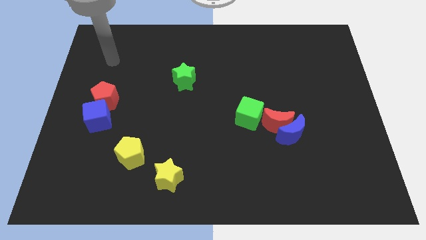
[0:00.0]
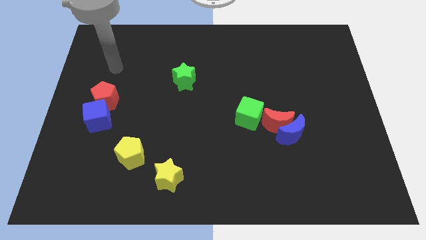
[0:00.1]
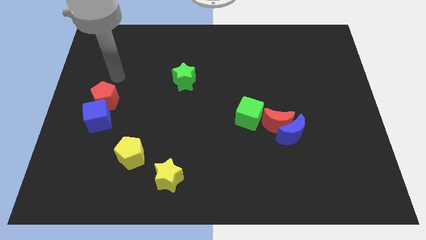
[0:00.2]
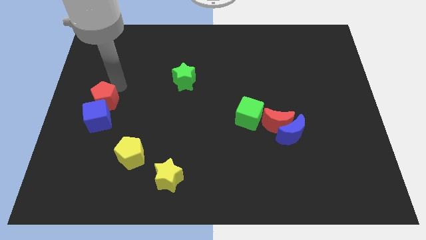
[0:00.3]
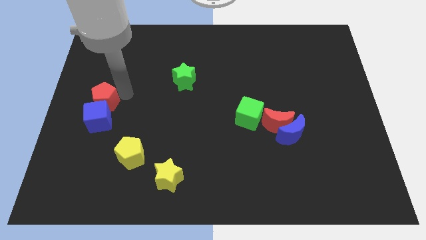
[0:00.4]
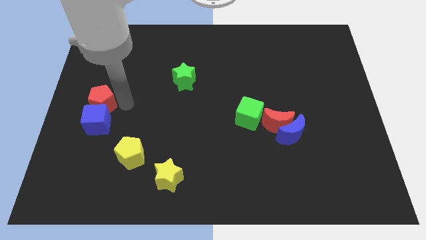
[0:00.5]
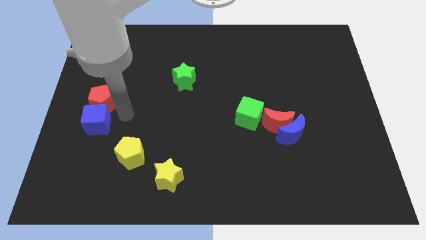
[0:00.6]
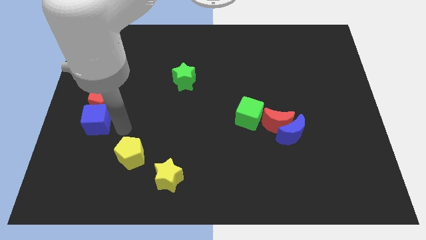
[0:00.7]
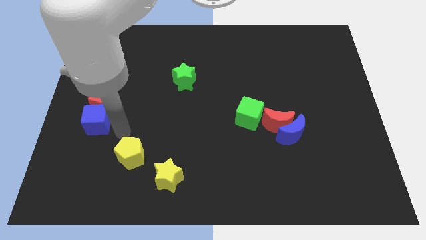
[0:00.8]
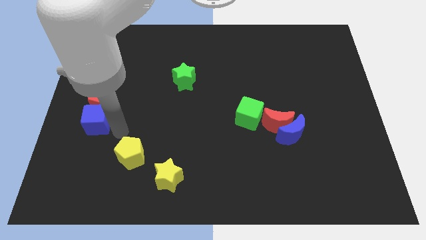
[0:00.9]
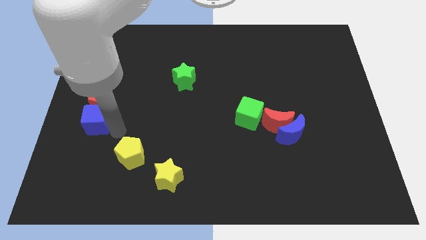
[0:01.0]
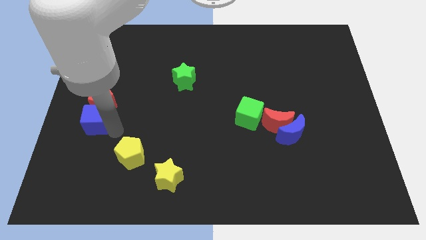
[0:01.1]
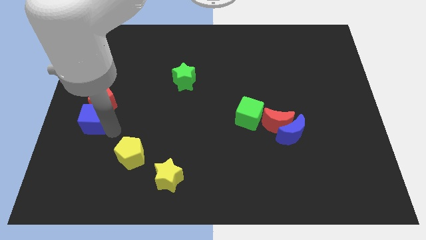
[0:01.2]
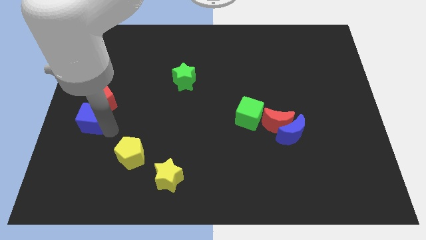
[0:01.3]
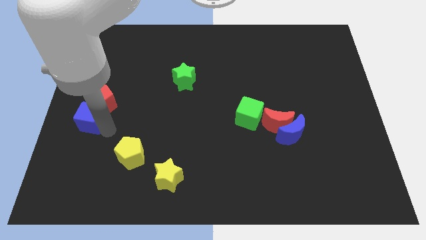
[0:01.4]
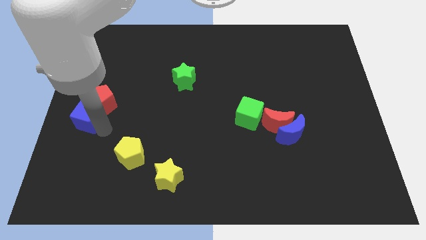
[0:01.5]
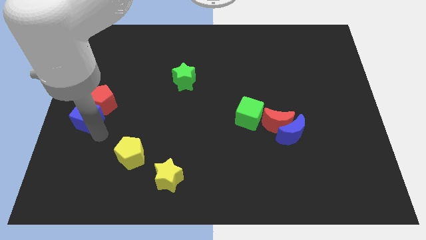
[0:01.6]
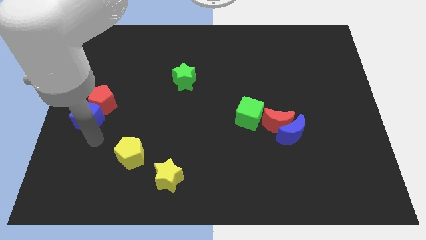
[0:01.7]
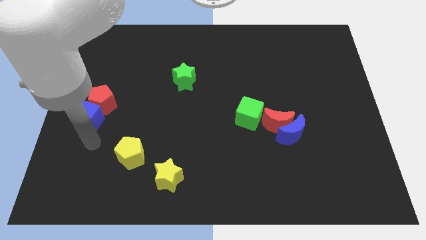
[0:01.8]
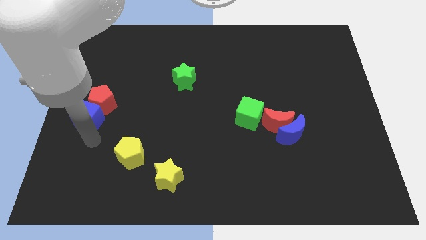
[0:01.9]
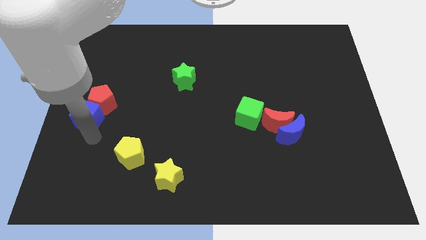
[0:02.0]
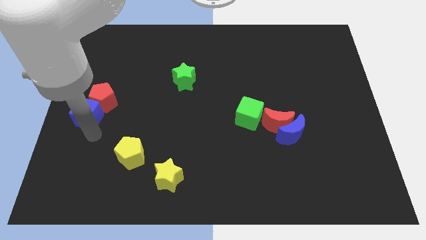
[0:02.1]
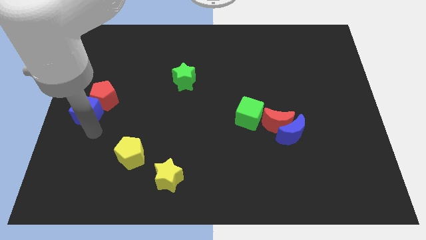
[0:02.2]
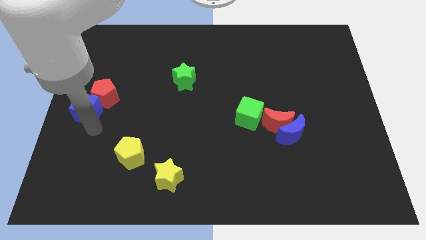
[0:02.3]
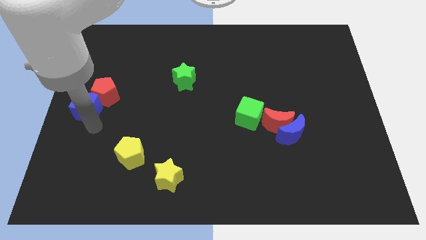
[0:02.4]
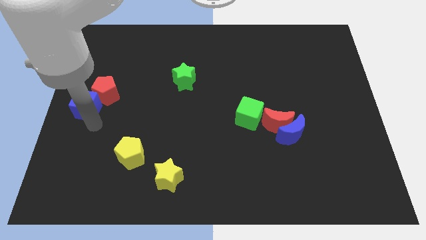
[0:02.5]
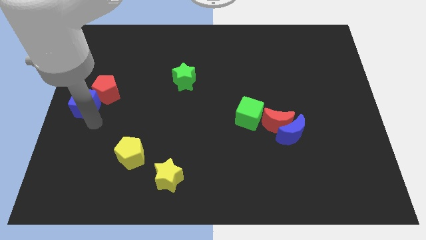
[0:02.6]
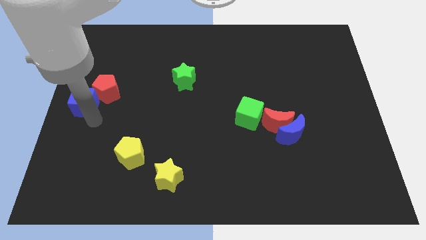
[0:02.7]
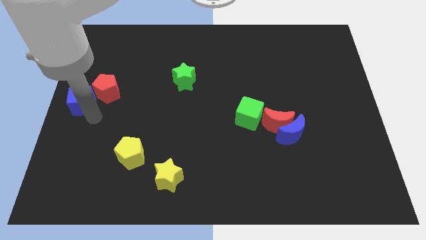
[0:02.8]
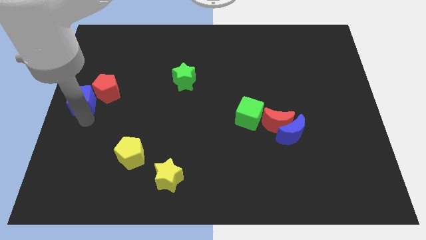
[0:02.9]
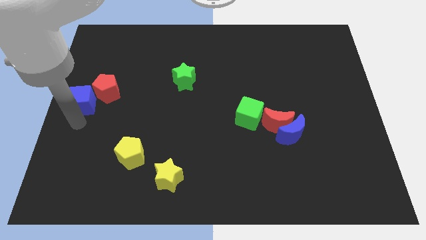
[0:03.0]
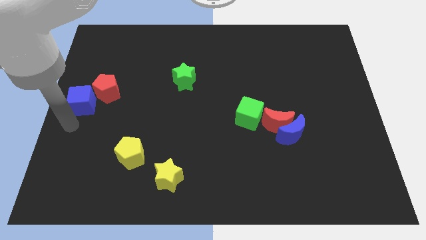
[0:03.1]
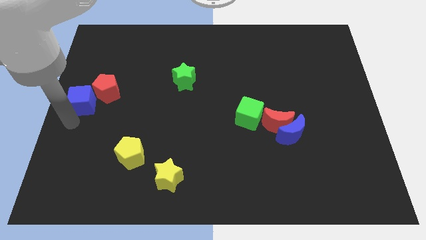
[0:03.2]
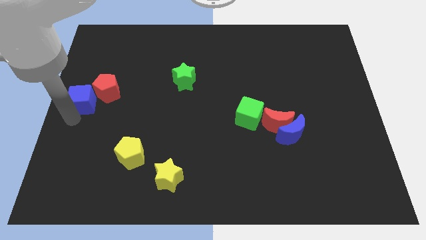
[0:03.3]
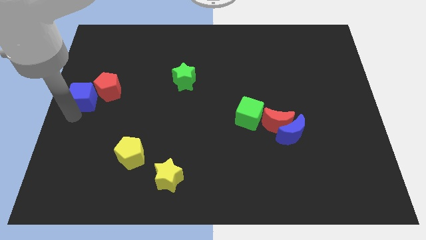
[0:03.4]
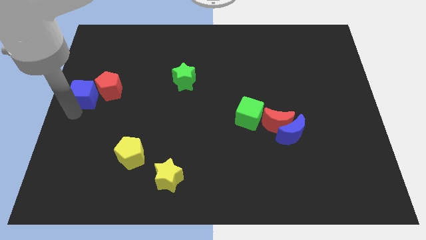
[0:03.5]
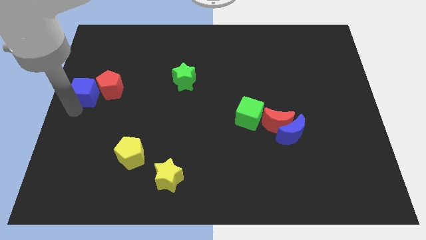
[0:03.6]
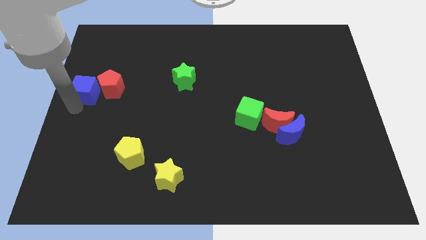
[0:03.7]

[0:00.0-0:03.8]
slightly push the blue cube upwards

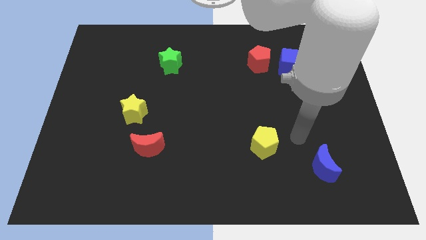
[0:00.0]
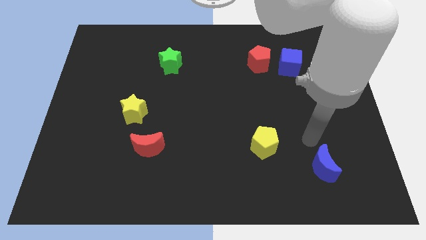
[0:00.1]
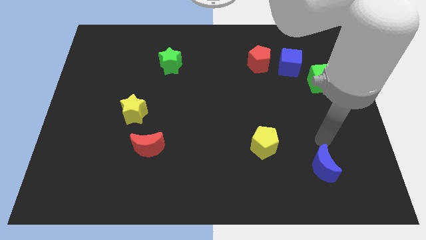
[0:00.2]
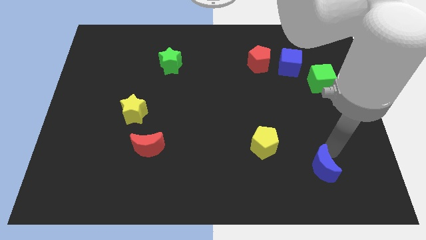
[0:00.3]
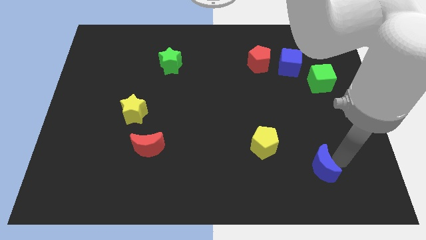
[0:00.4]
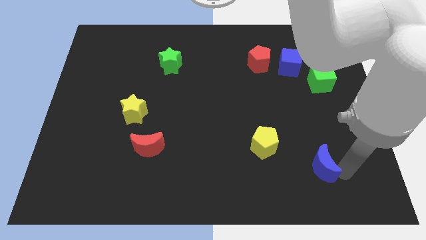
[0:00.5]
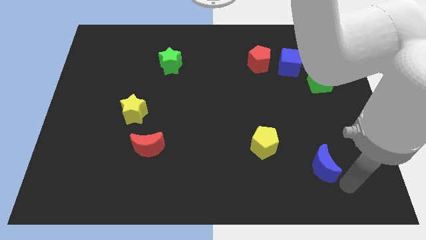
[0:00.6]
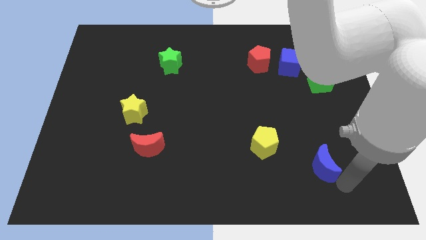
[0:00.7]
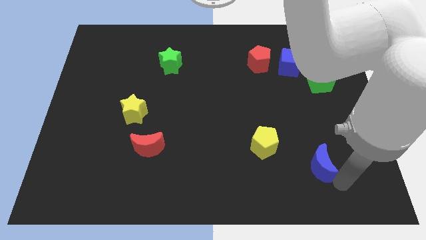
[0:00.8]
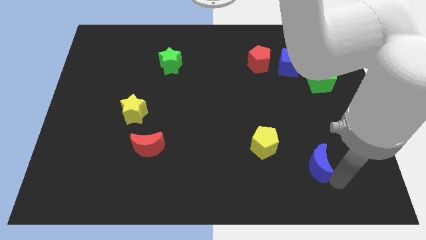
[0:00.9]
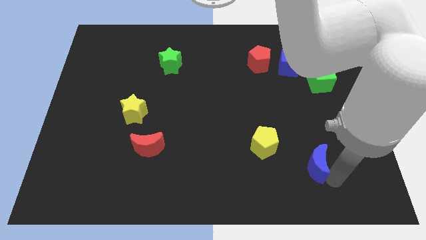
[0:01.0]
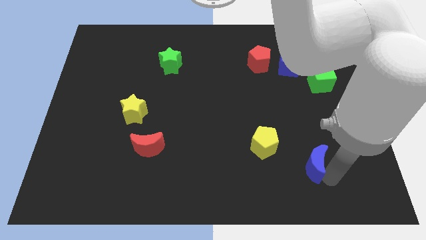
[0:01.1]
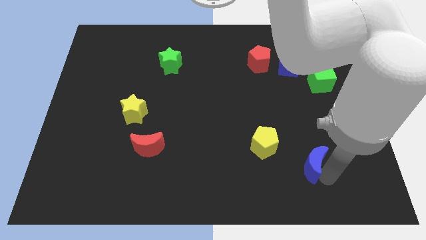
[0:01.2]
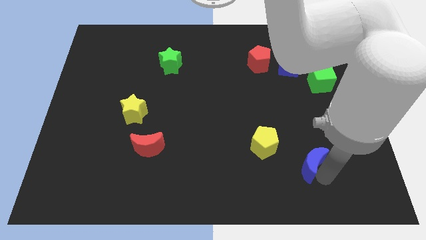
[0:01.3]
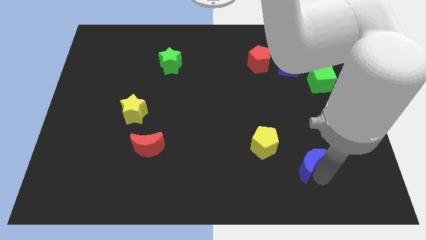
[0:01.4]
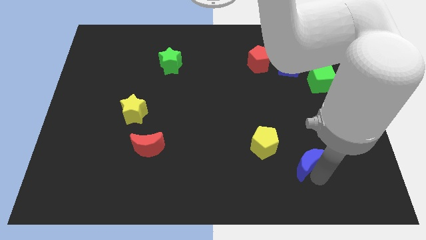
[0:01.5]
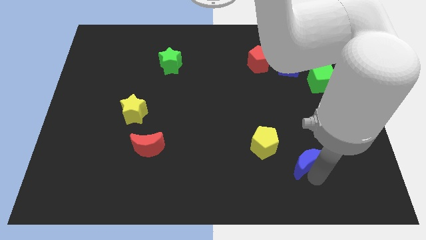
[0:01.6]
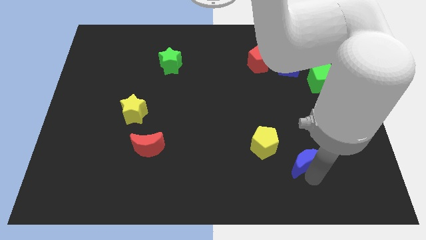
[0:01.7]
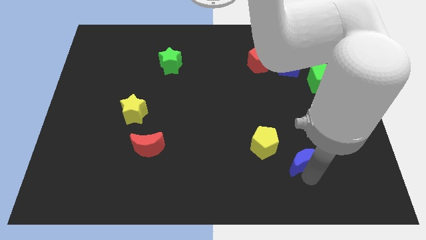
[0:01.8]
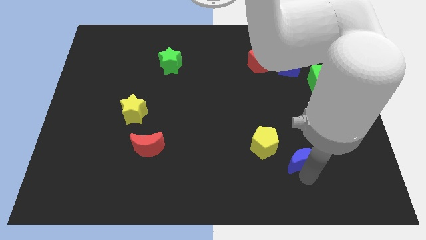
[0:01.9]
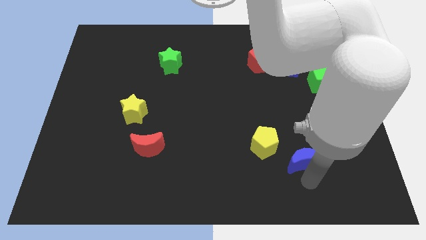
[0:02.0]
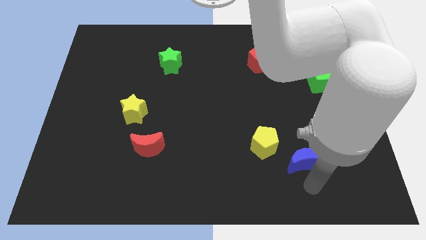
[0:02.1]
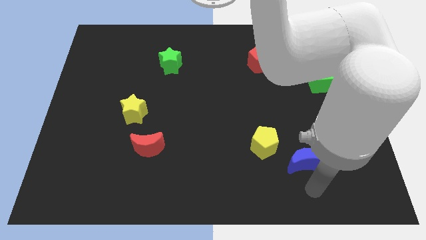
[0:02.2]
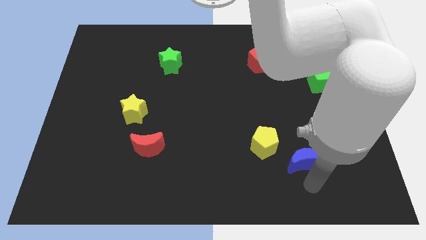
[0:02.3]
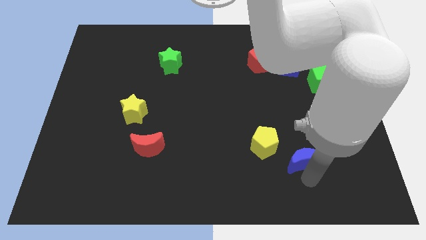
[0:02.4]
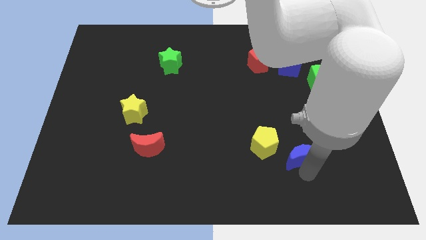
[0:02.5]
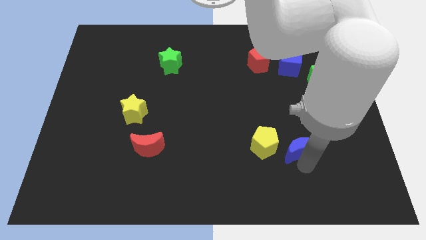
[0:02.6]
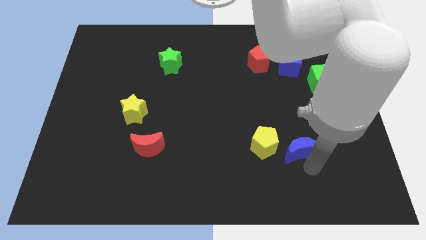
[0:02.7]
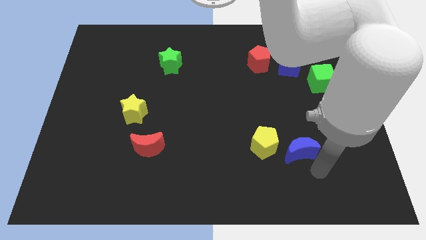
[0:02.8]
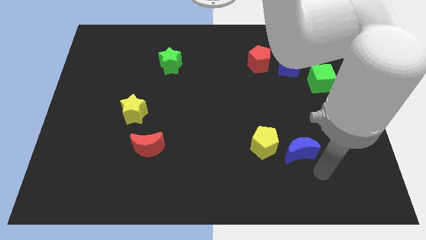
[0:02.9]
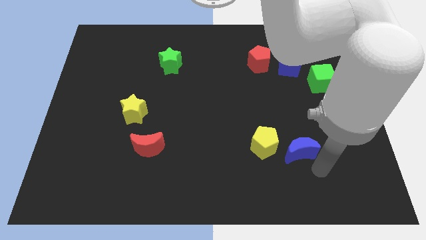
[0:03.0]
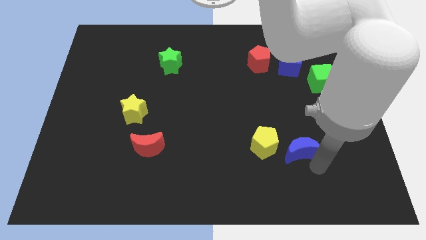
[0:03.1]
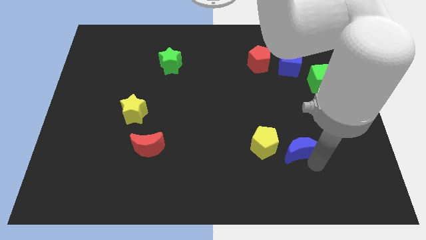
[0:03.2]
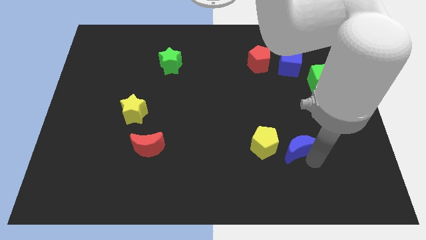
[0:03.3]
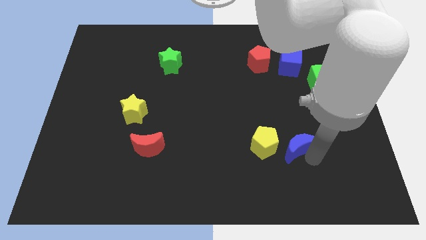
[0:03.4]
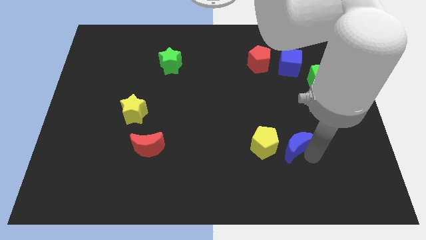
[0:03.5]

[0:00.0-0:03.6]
slightly slide the blue moon diagonally up and left

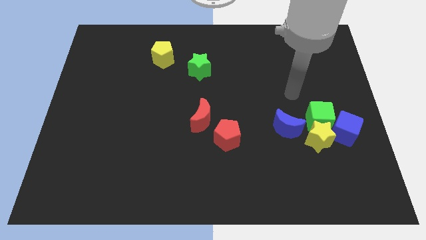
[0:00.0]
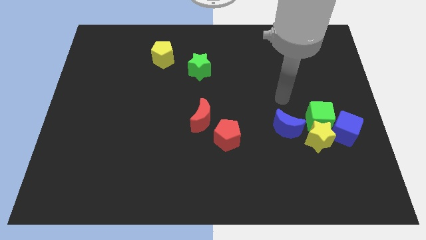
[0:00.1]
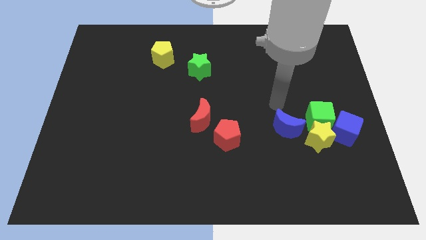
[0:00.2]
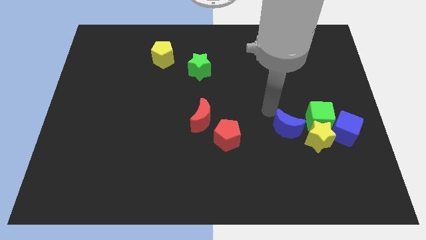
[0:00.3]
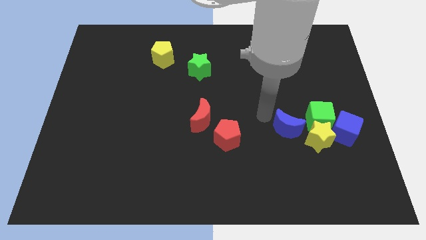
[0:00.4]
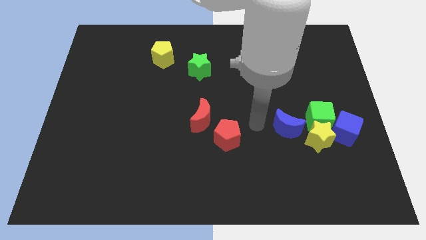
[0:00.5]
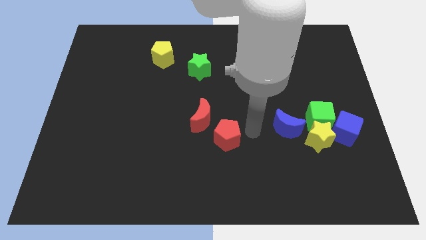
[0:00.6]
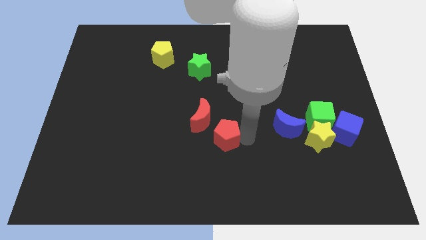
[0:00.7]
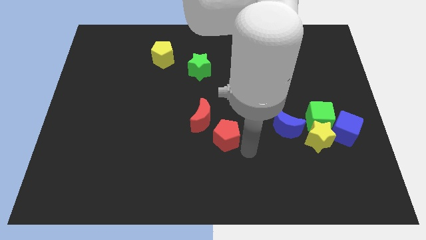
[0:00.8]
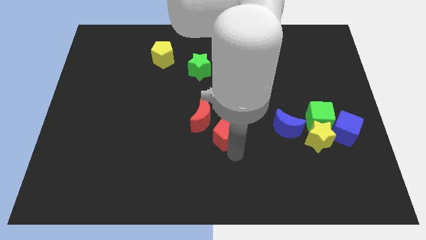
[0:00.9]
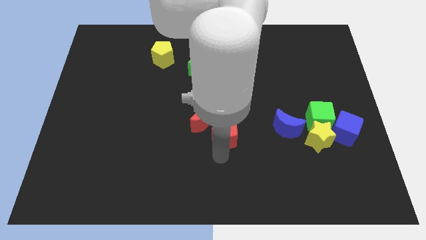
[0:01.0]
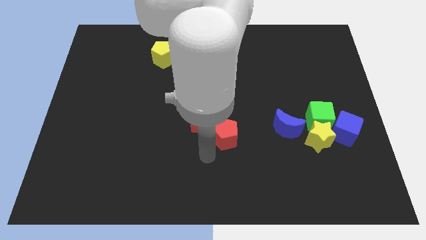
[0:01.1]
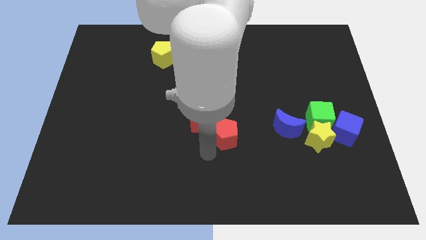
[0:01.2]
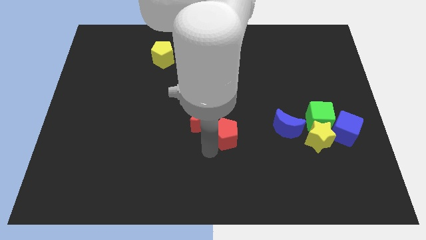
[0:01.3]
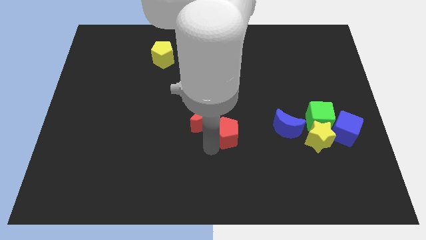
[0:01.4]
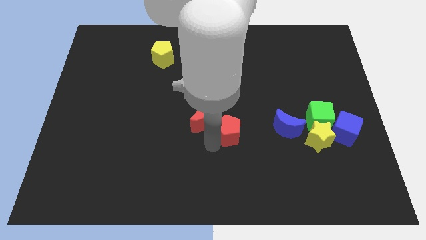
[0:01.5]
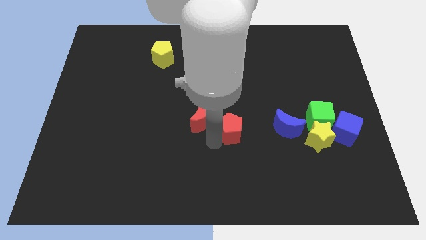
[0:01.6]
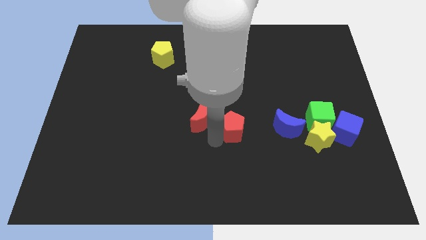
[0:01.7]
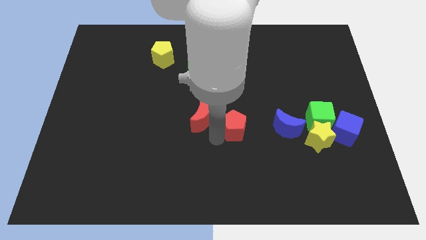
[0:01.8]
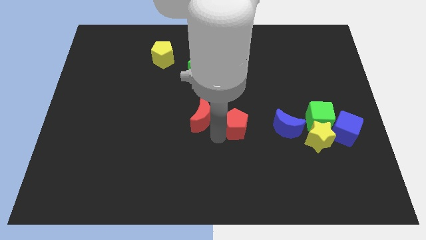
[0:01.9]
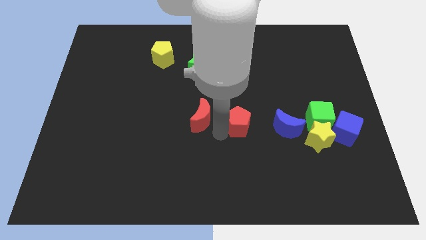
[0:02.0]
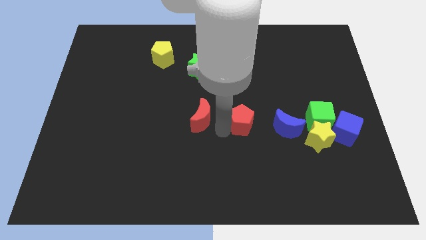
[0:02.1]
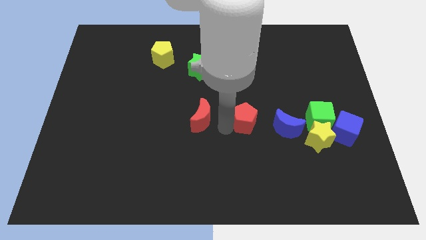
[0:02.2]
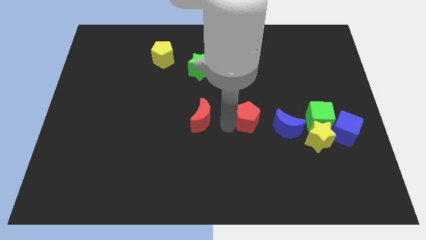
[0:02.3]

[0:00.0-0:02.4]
slightly push the red pentagon upwards and right
